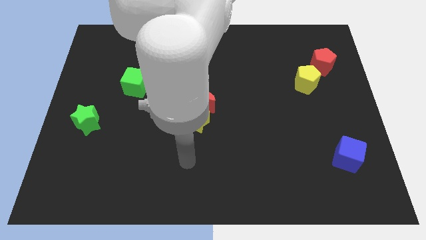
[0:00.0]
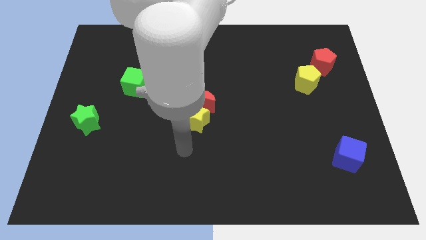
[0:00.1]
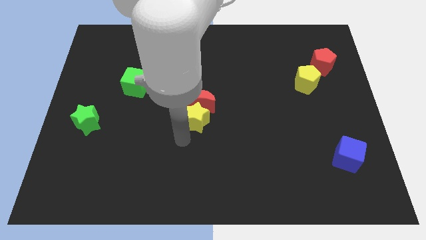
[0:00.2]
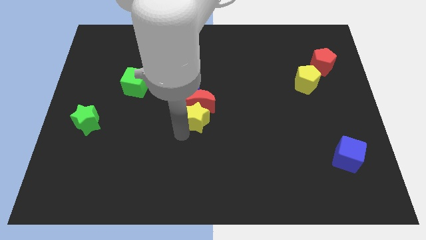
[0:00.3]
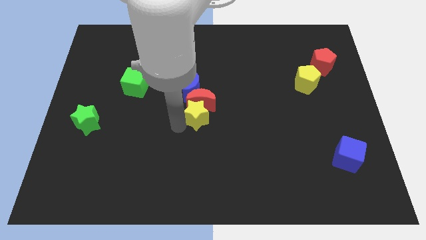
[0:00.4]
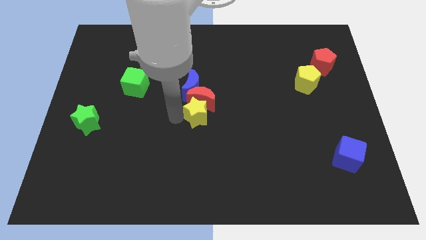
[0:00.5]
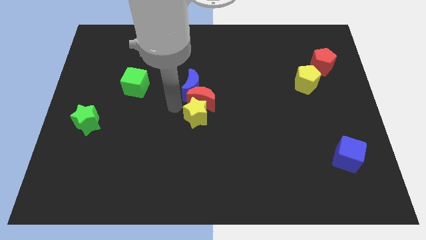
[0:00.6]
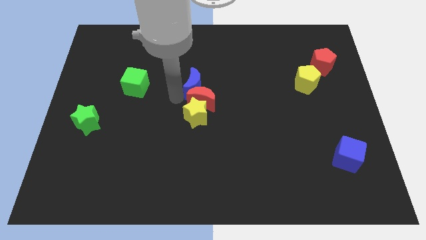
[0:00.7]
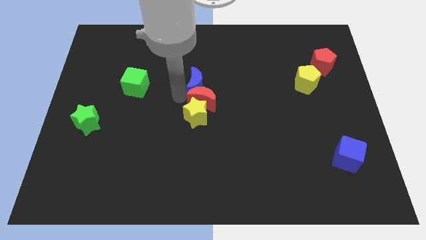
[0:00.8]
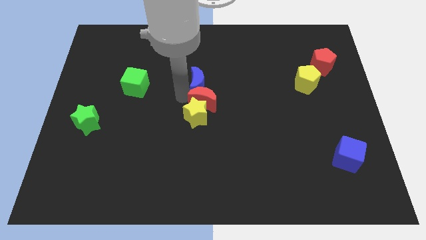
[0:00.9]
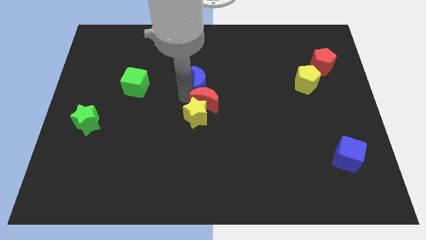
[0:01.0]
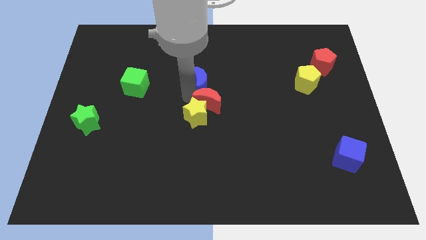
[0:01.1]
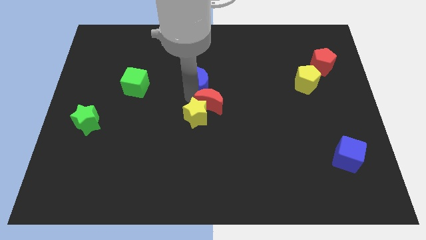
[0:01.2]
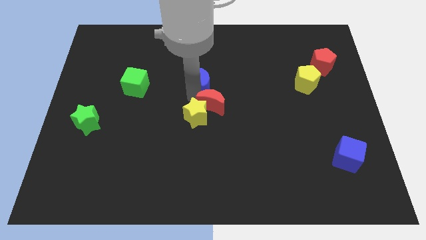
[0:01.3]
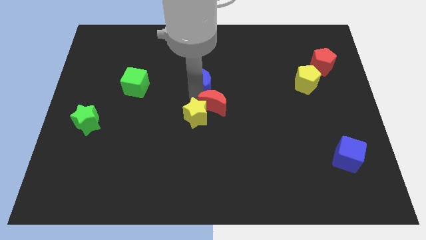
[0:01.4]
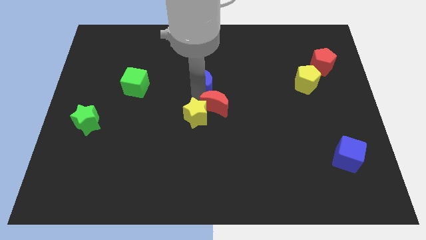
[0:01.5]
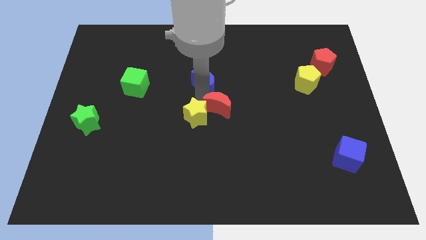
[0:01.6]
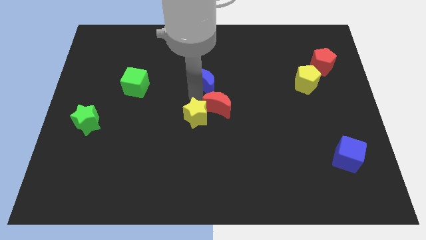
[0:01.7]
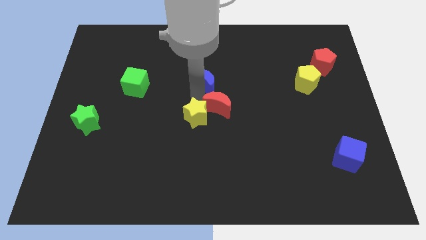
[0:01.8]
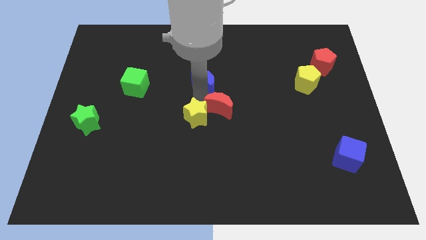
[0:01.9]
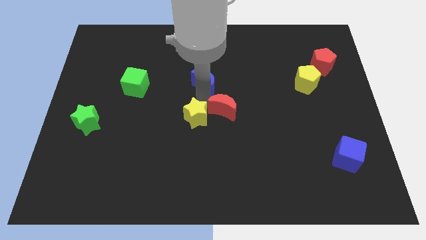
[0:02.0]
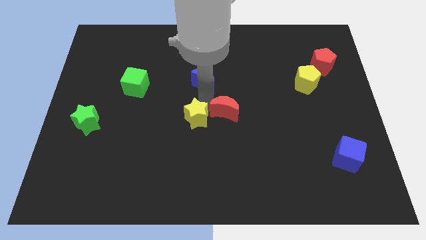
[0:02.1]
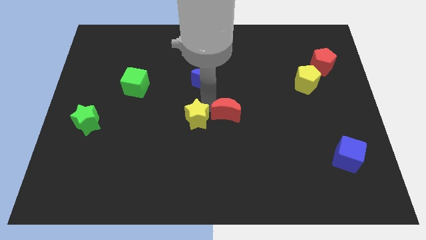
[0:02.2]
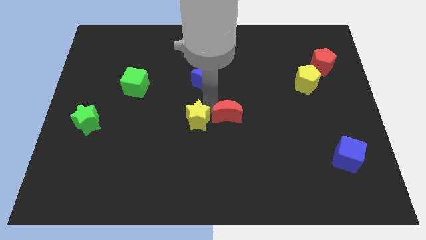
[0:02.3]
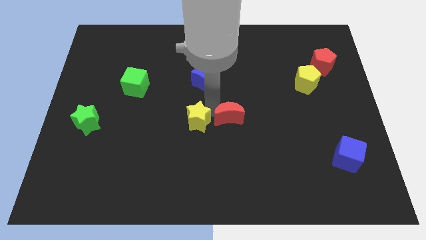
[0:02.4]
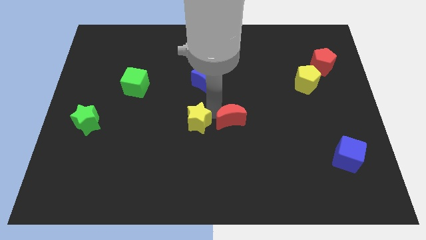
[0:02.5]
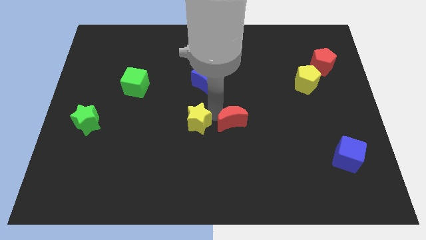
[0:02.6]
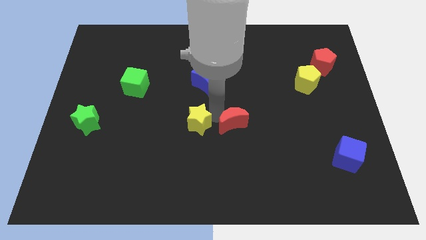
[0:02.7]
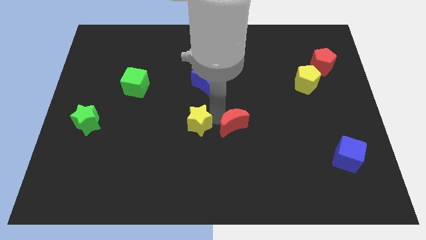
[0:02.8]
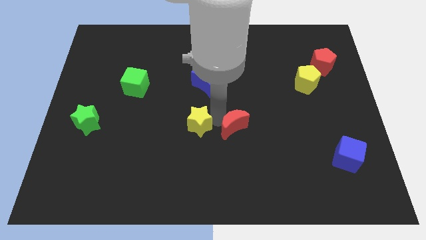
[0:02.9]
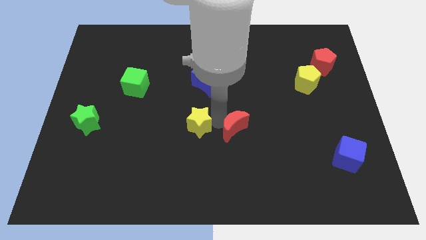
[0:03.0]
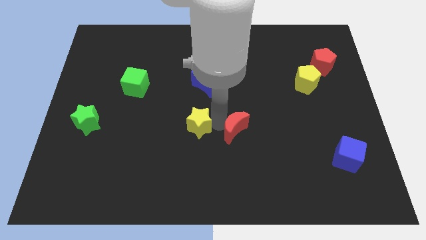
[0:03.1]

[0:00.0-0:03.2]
pull the red moon apart from the yellow star and blue moon

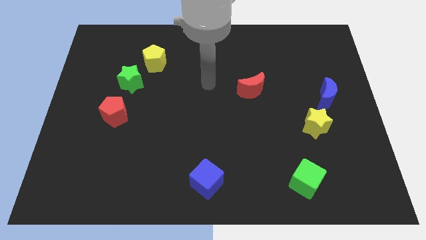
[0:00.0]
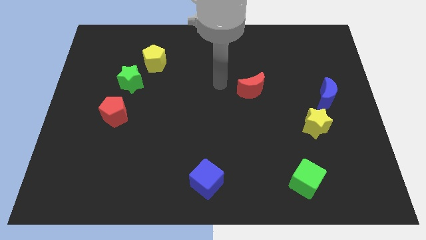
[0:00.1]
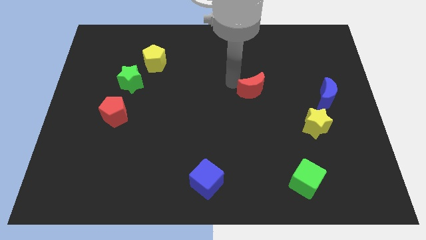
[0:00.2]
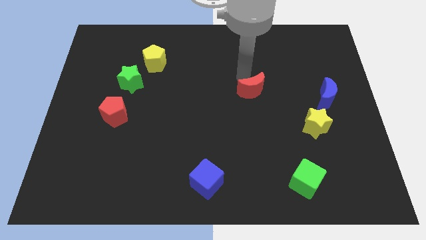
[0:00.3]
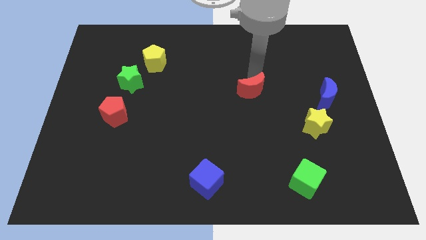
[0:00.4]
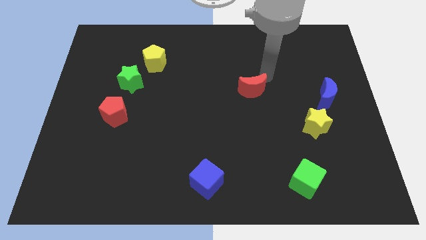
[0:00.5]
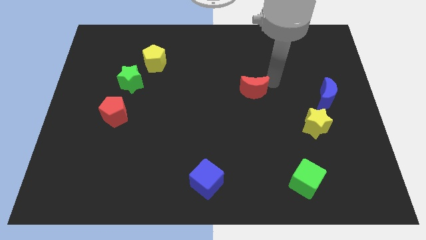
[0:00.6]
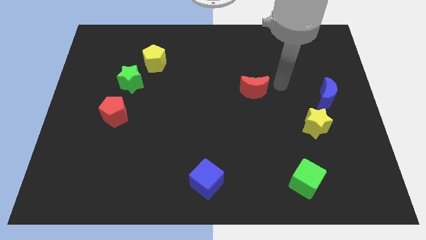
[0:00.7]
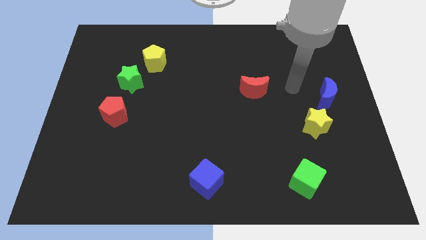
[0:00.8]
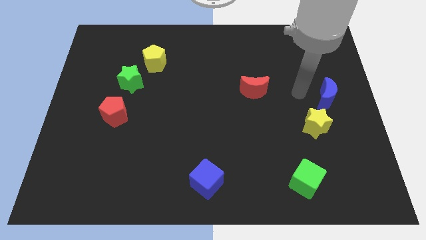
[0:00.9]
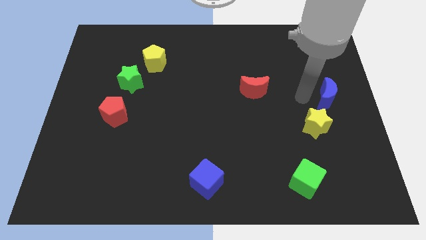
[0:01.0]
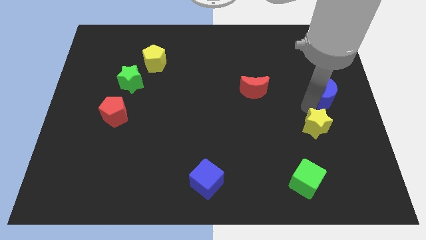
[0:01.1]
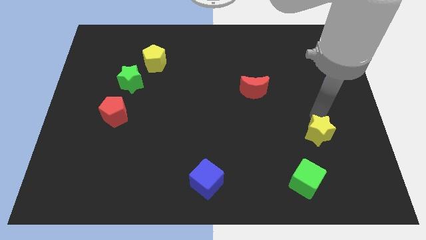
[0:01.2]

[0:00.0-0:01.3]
pull the blue moon apart from the yellow star

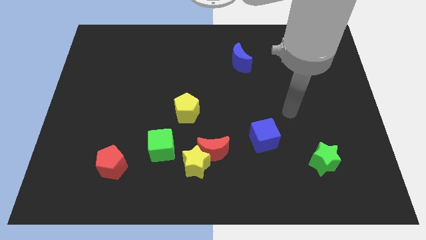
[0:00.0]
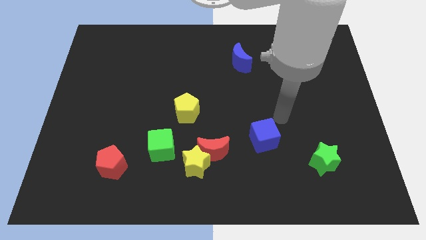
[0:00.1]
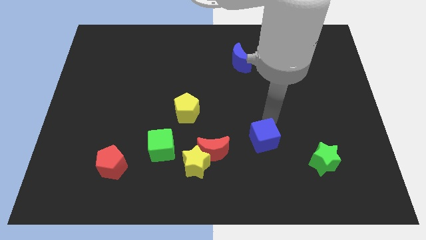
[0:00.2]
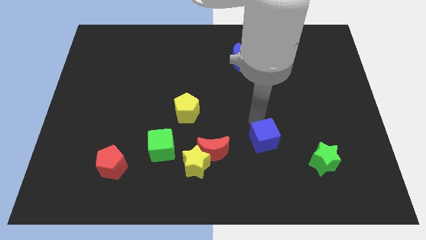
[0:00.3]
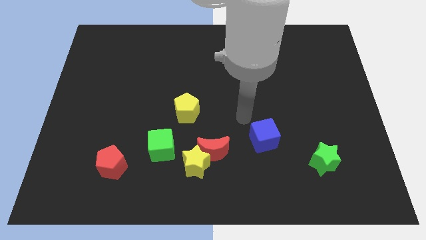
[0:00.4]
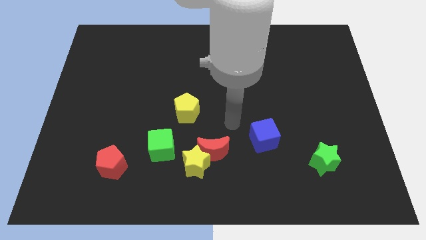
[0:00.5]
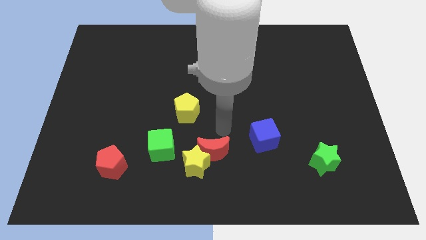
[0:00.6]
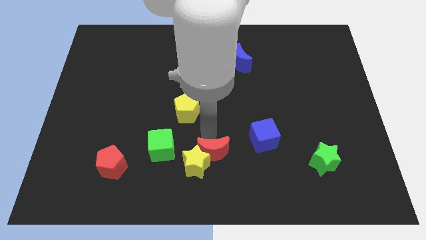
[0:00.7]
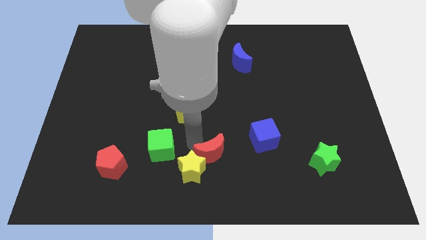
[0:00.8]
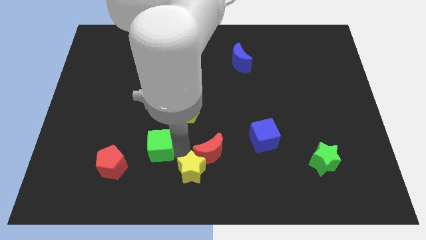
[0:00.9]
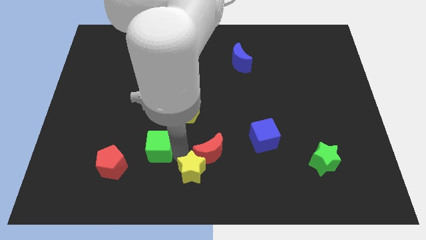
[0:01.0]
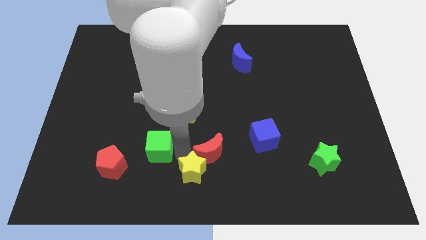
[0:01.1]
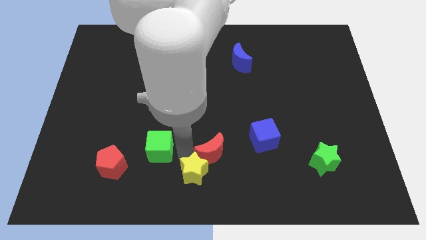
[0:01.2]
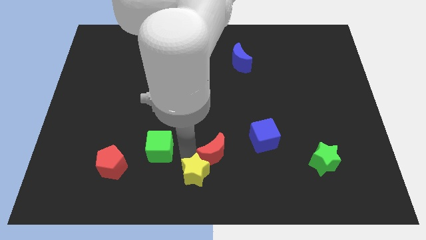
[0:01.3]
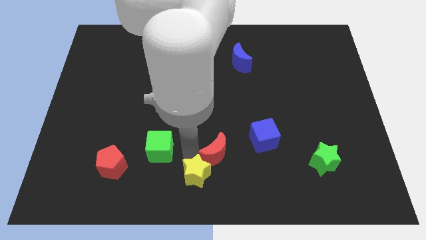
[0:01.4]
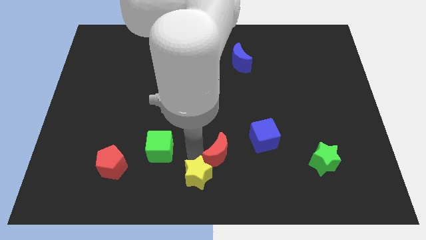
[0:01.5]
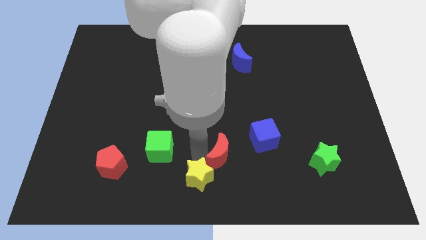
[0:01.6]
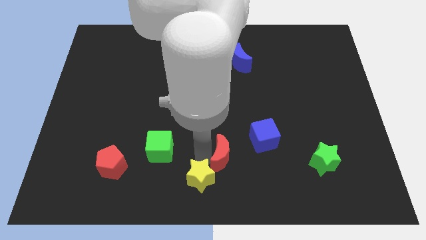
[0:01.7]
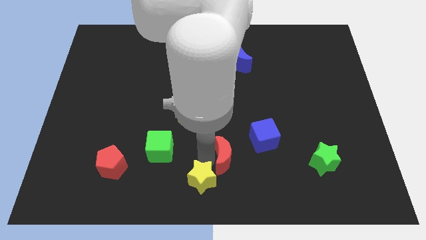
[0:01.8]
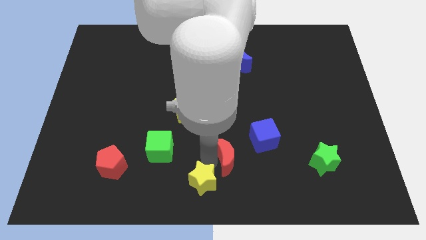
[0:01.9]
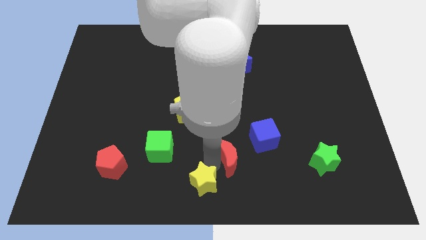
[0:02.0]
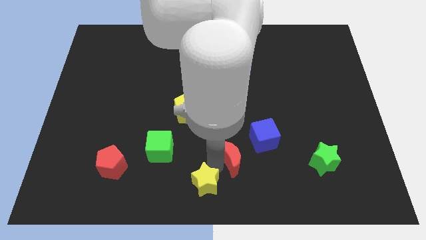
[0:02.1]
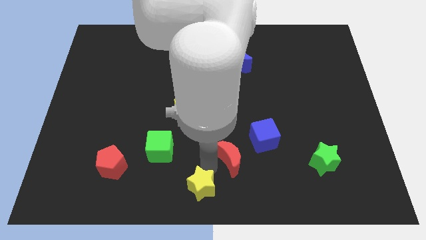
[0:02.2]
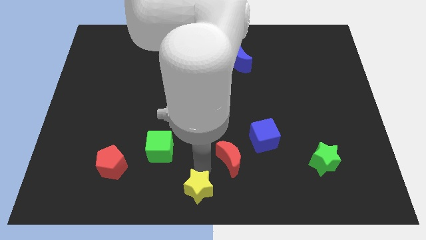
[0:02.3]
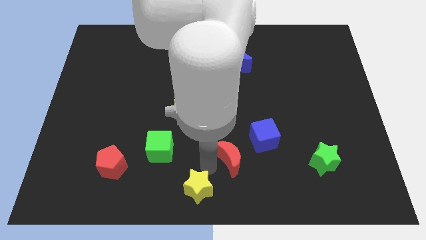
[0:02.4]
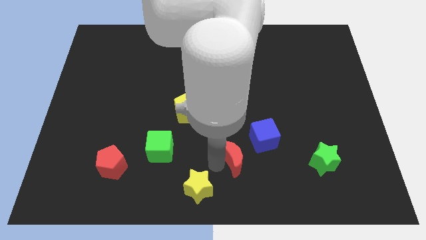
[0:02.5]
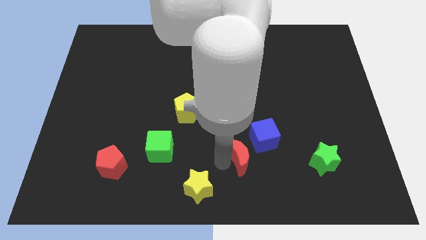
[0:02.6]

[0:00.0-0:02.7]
separate the red moon from the yellow star

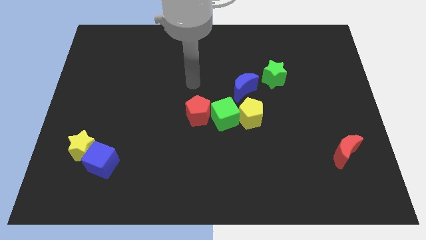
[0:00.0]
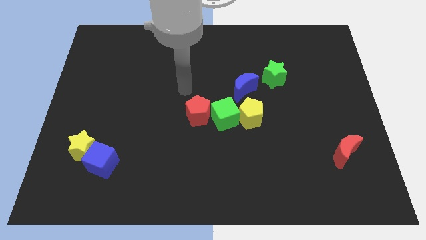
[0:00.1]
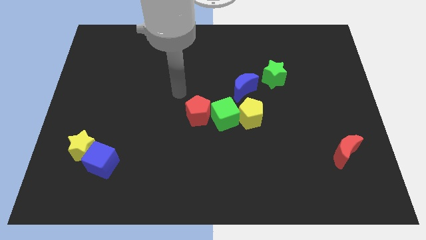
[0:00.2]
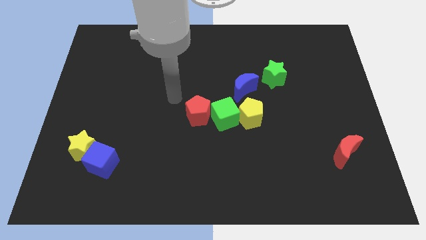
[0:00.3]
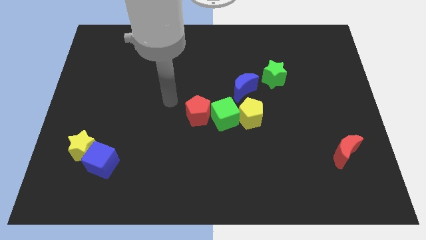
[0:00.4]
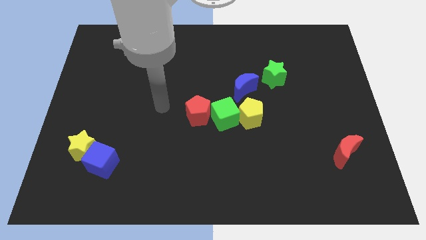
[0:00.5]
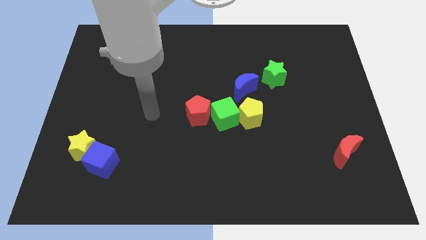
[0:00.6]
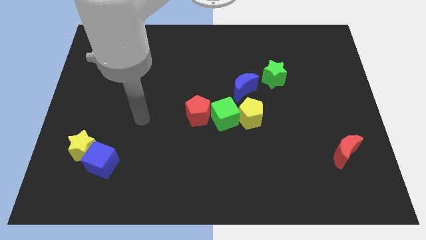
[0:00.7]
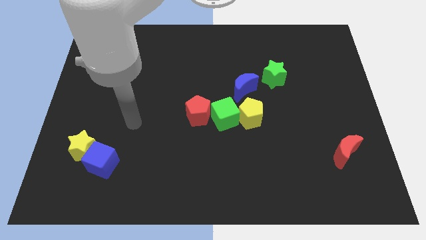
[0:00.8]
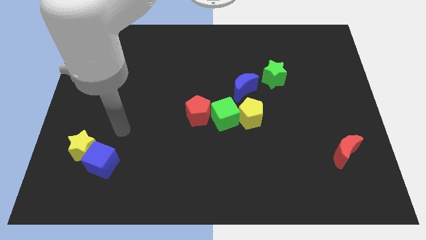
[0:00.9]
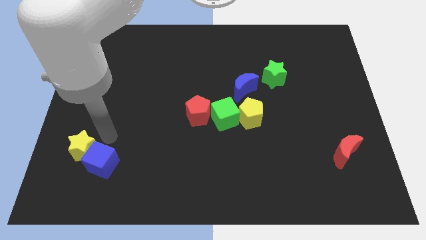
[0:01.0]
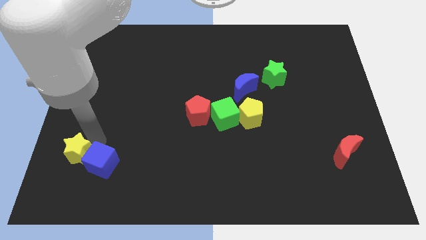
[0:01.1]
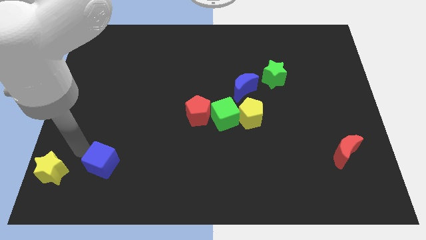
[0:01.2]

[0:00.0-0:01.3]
separate the blue cube from the yellow star

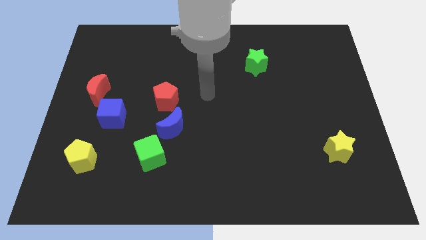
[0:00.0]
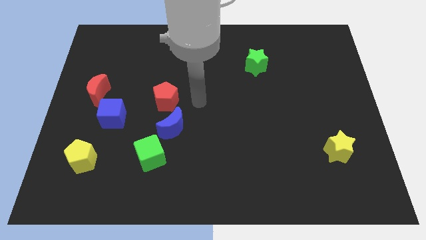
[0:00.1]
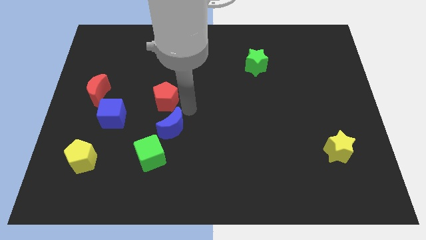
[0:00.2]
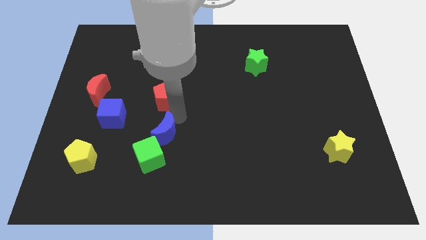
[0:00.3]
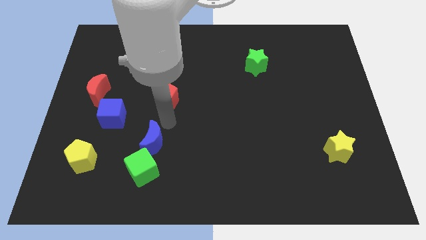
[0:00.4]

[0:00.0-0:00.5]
move the red pentagon away from the blue moon

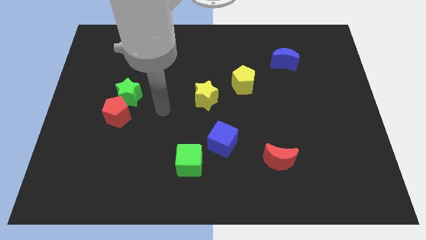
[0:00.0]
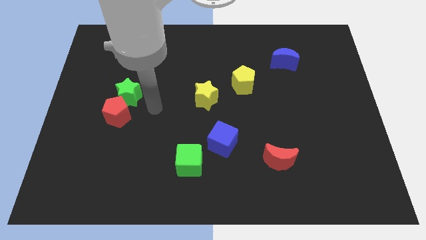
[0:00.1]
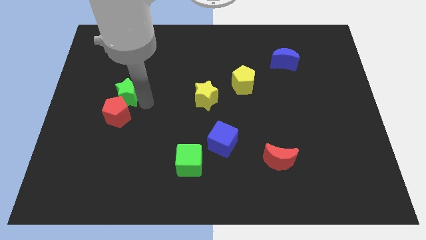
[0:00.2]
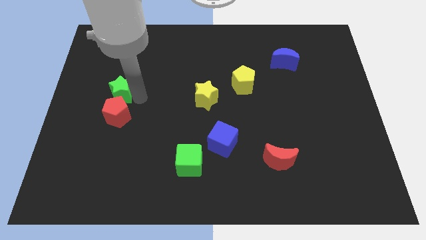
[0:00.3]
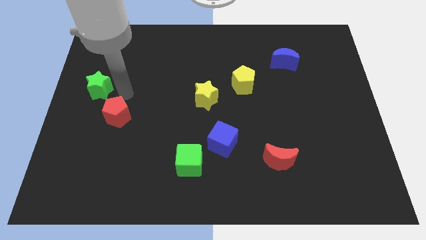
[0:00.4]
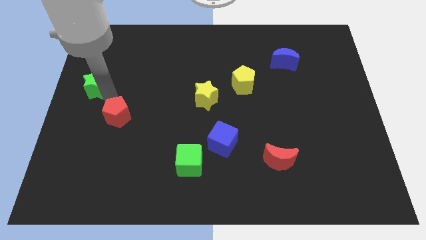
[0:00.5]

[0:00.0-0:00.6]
move the red pentagon away from the green star
